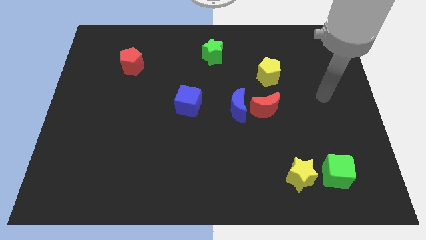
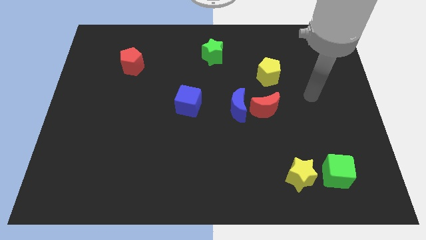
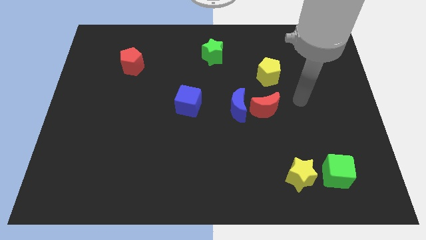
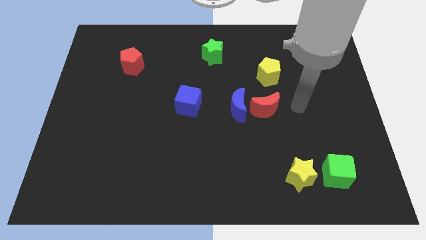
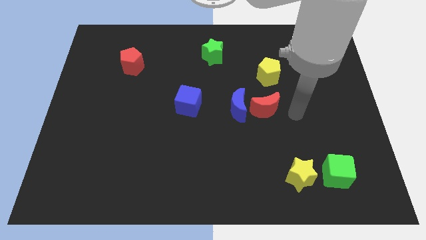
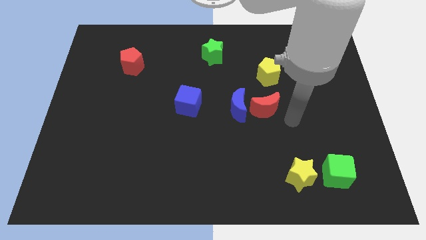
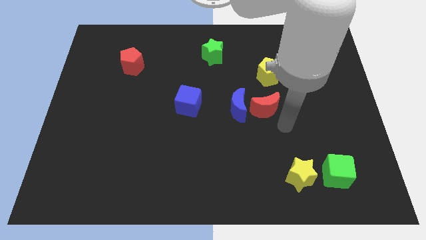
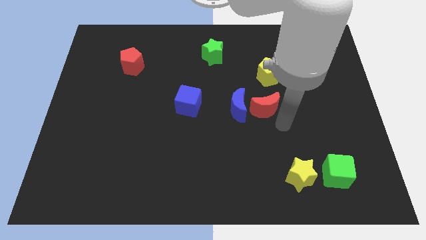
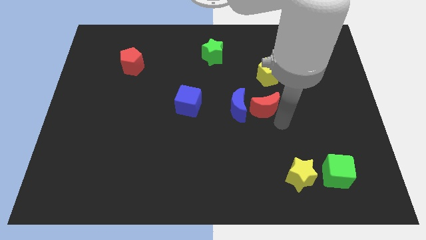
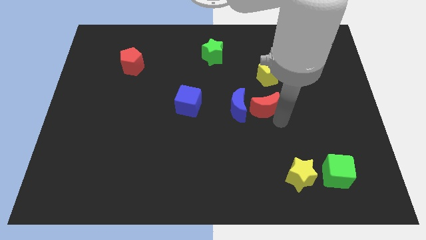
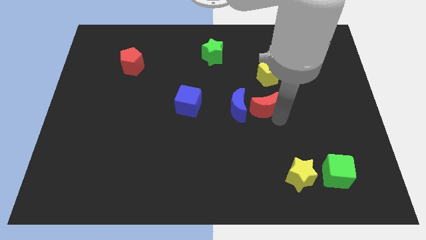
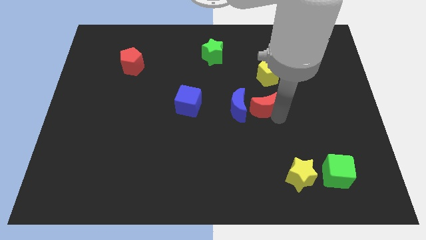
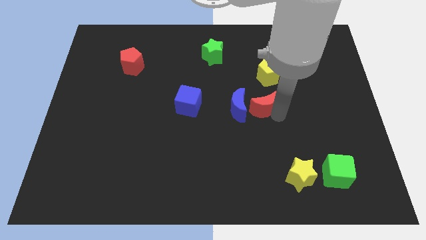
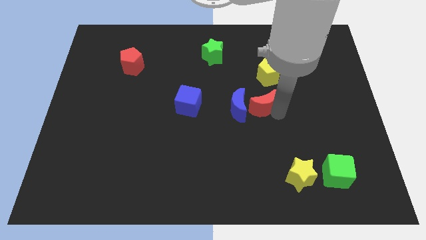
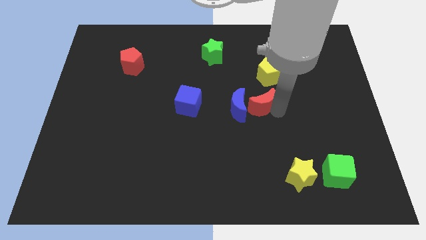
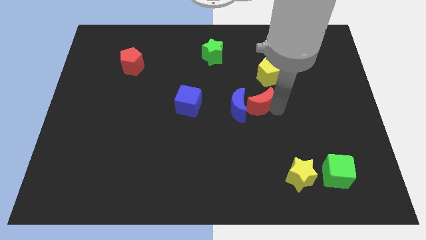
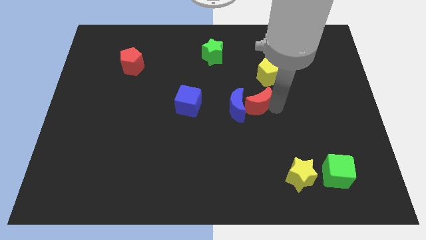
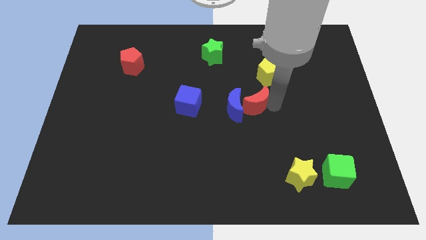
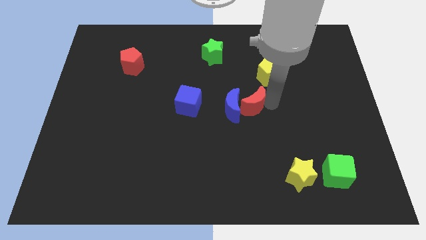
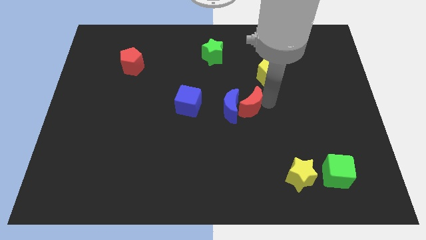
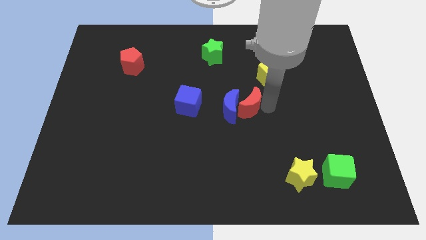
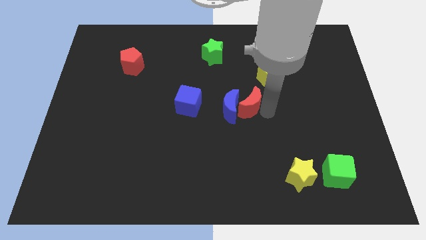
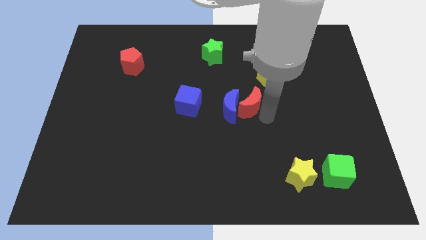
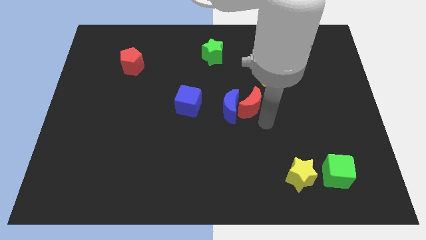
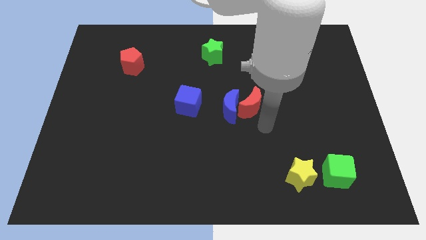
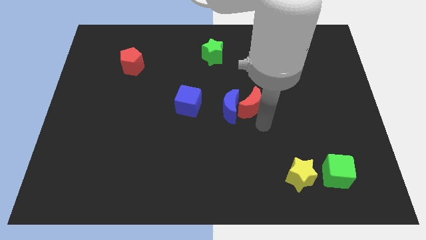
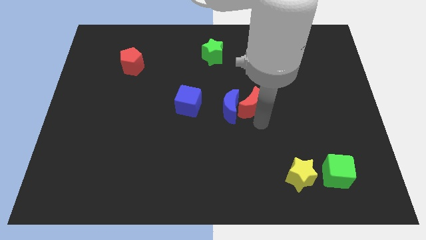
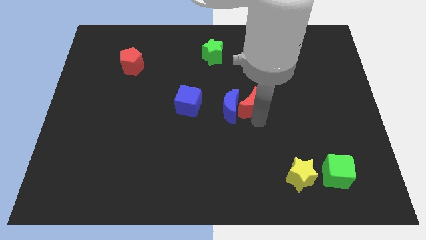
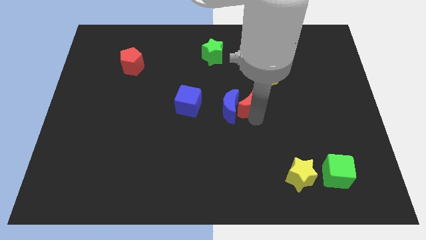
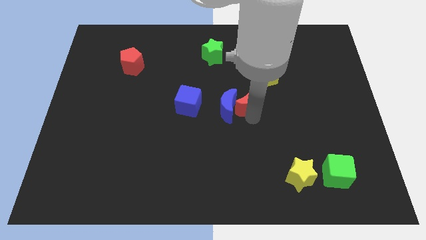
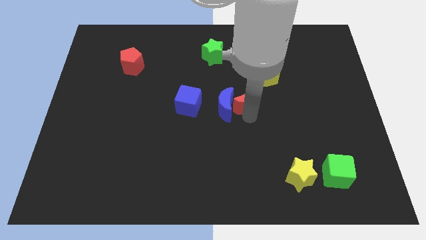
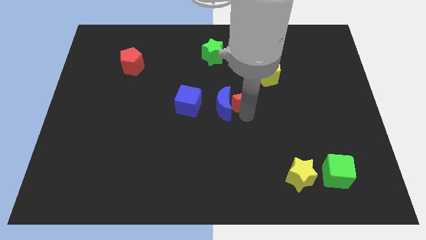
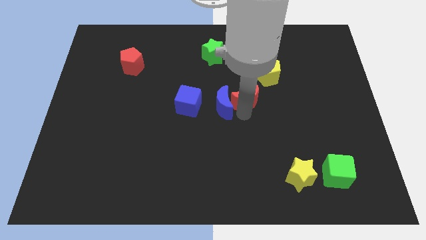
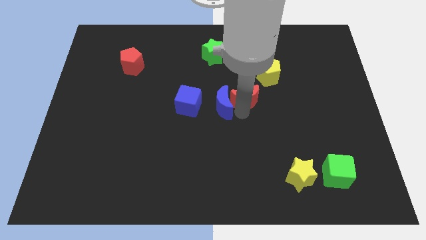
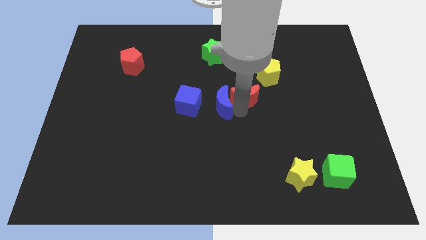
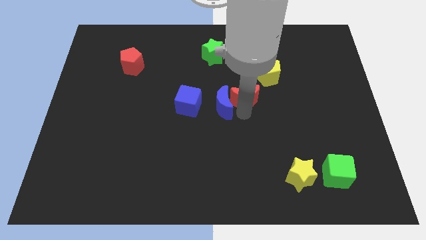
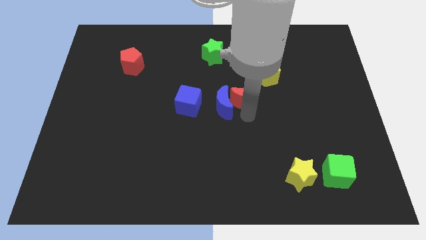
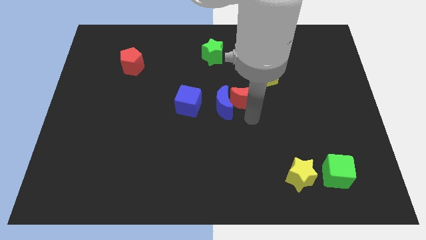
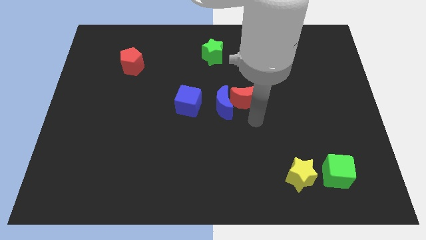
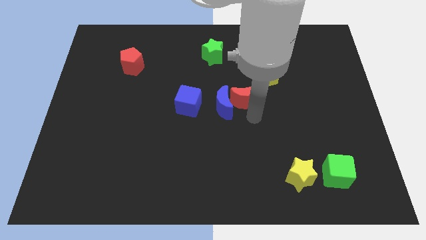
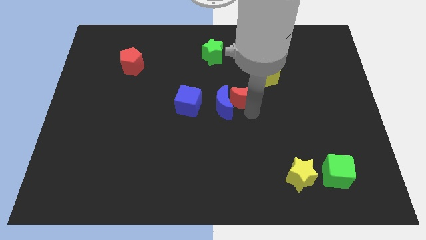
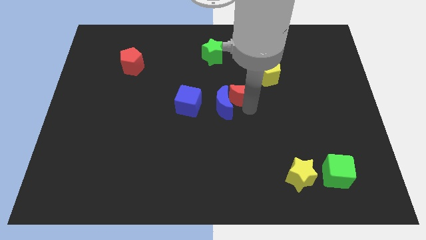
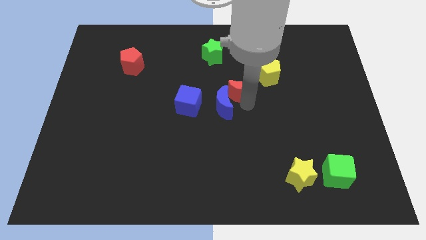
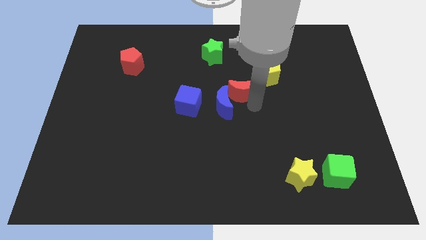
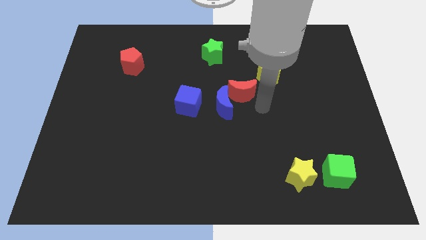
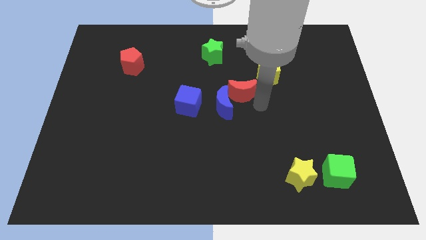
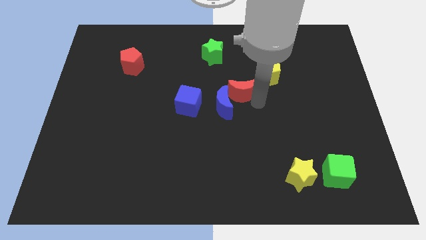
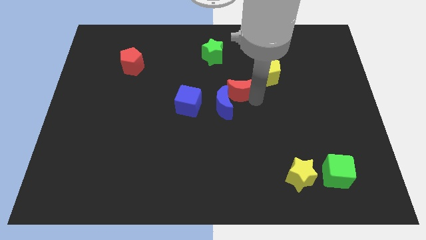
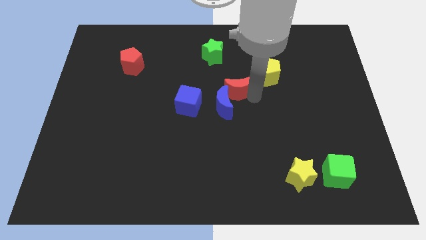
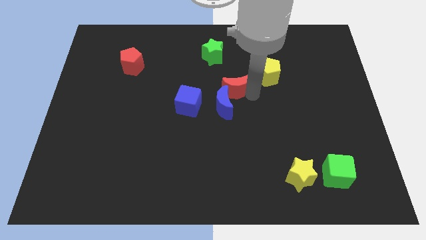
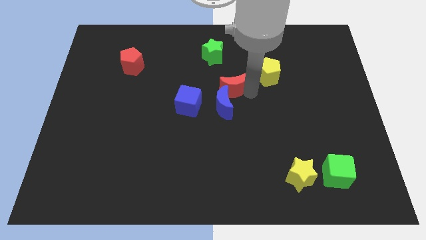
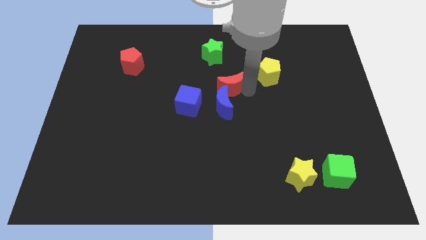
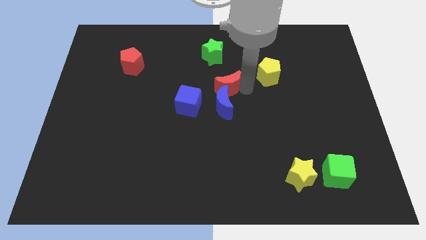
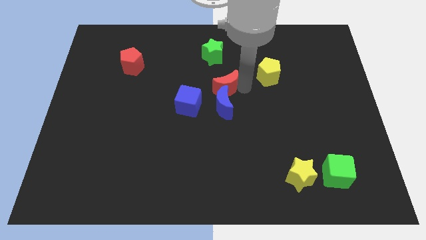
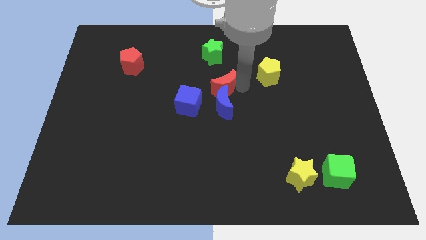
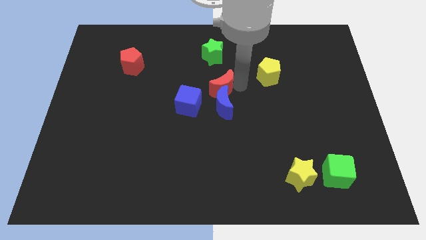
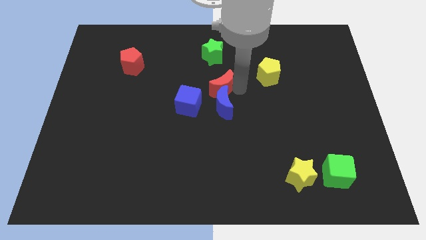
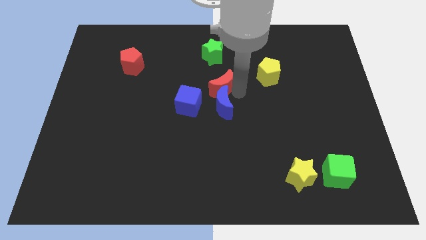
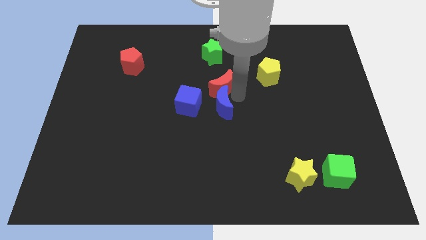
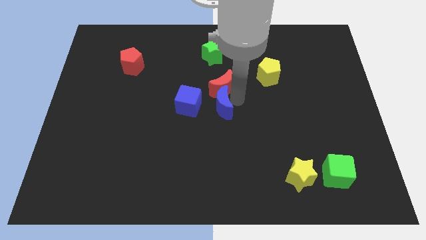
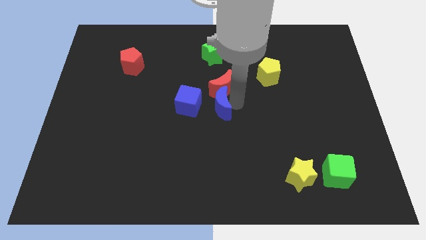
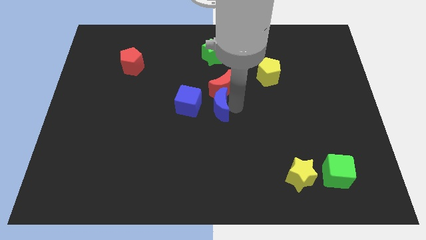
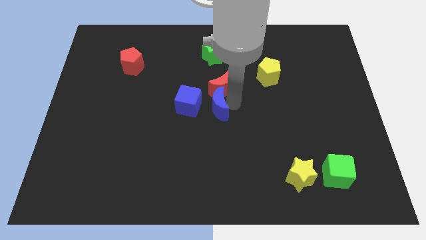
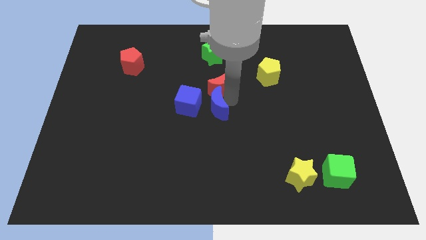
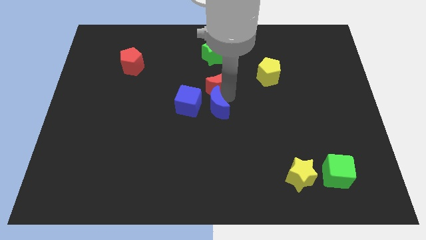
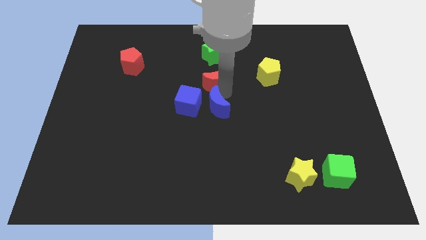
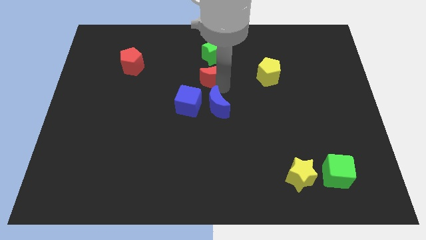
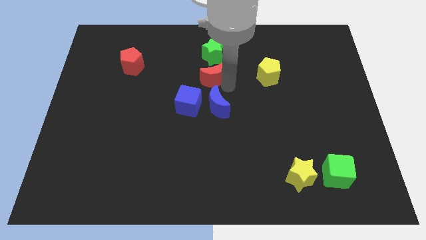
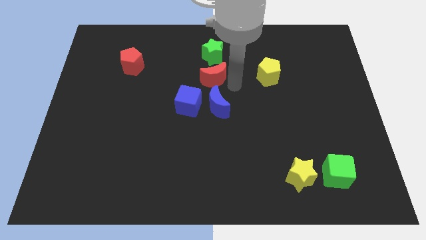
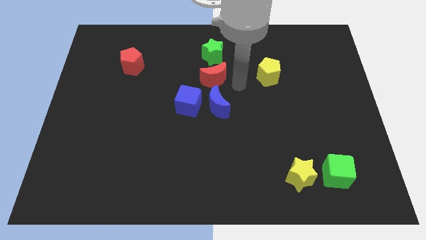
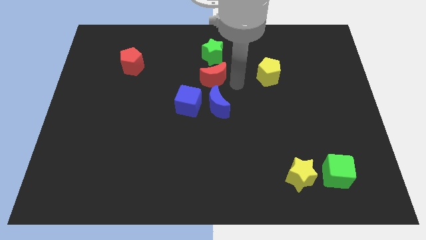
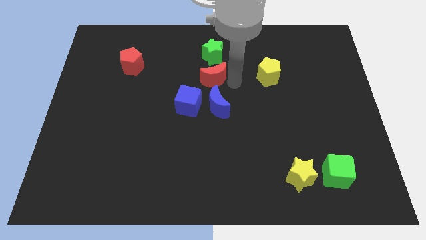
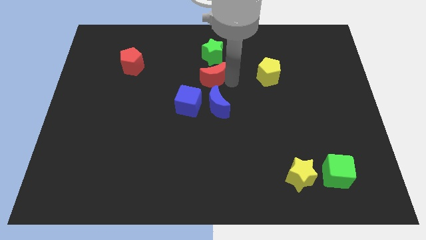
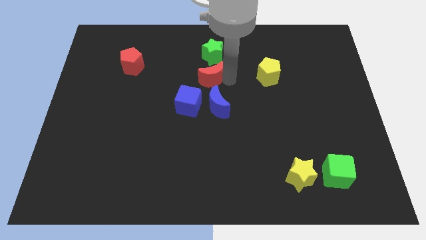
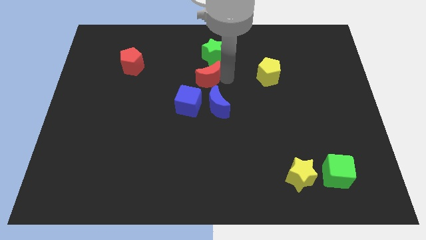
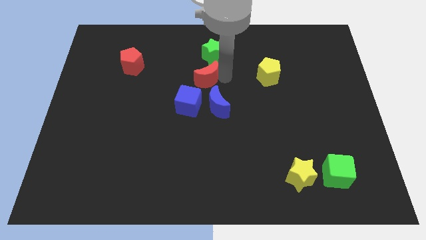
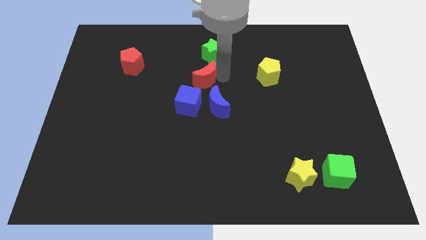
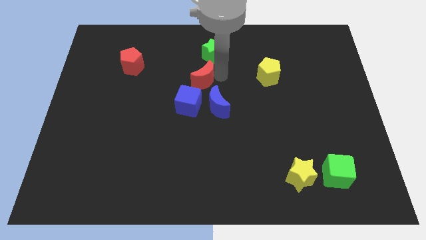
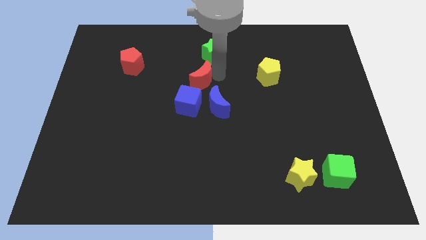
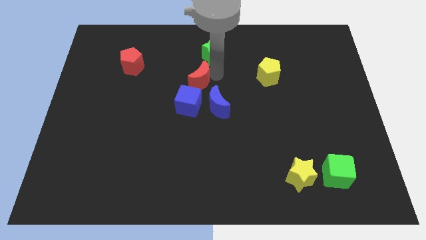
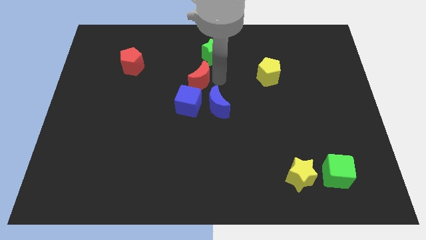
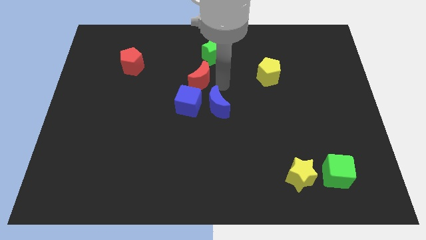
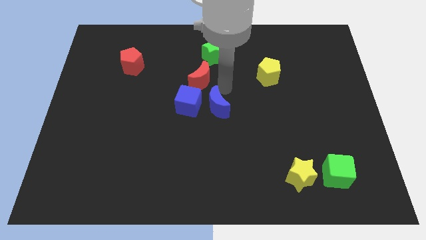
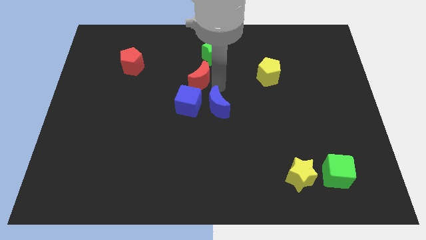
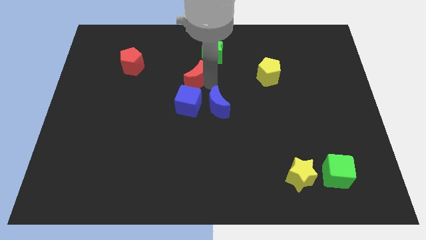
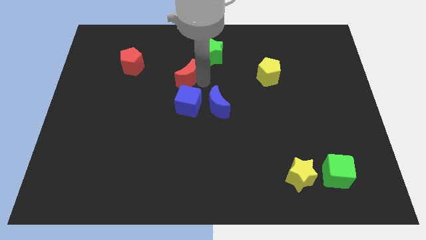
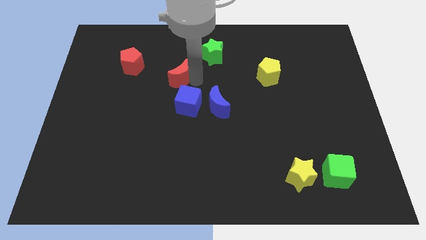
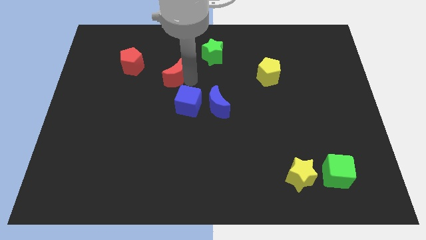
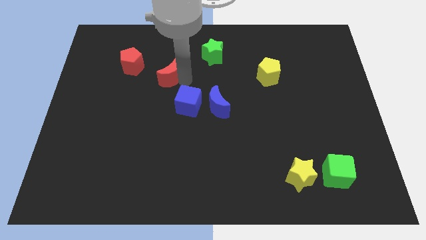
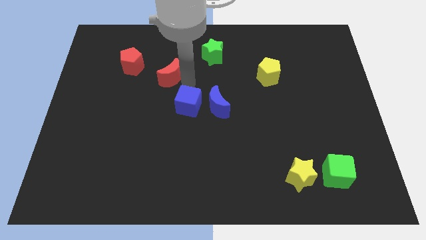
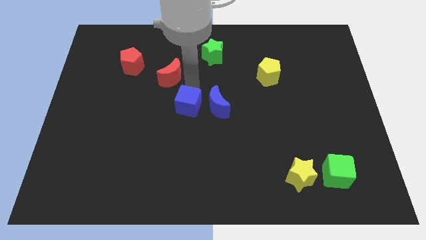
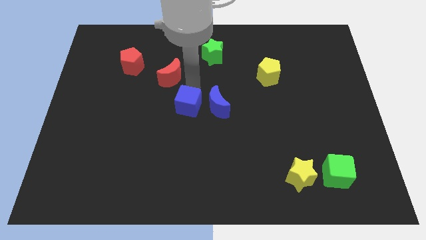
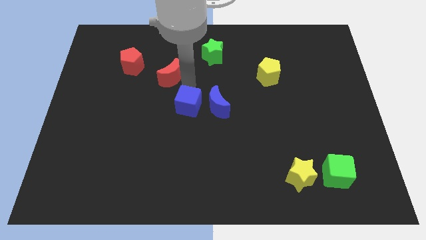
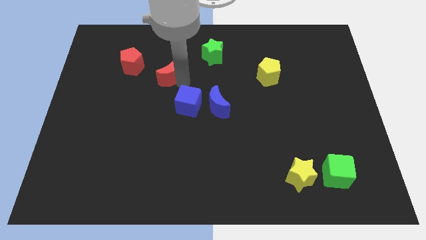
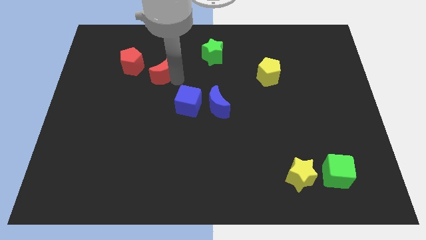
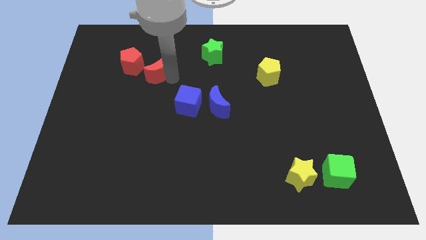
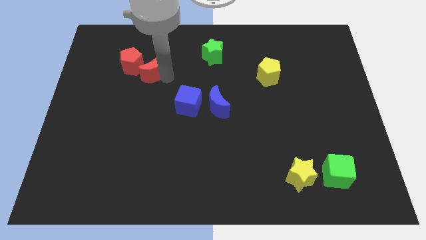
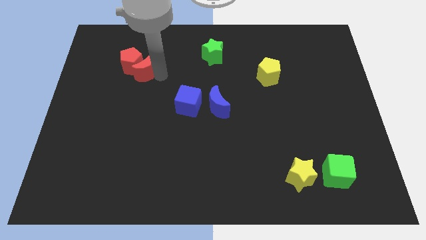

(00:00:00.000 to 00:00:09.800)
push the red moon next to the red pentagon
